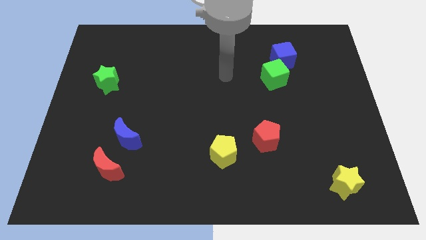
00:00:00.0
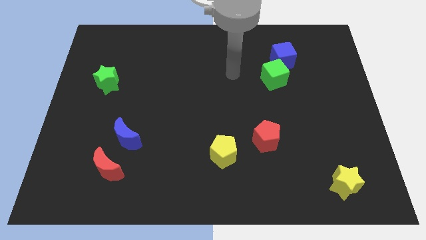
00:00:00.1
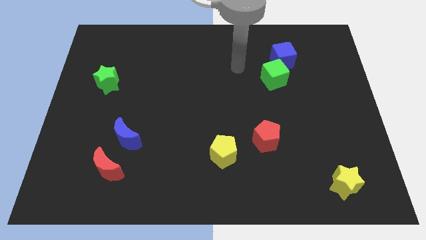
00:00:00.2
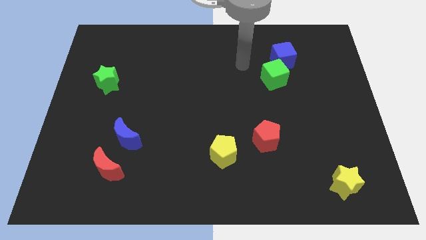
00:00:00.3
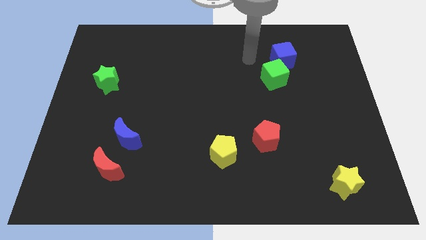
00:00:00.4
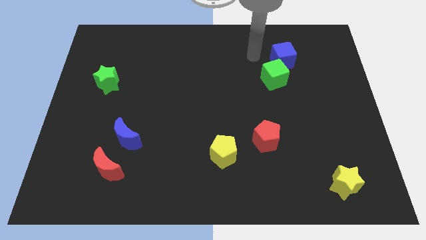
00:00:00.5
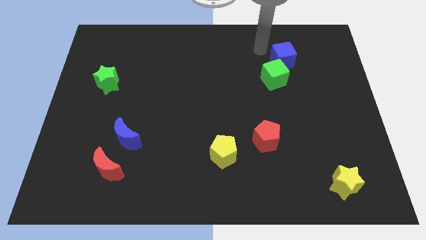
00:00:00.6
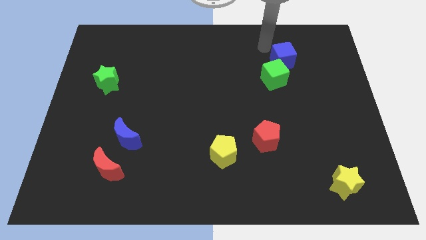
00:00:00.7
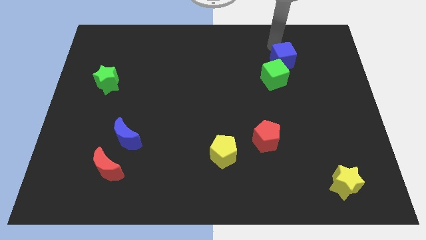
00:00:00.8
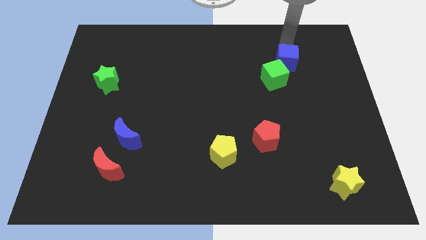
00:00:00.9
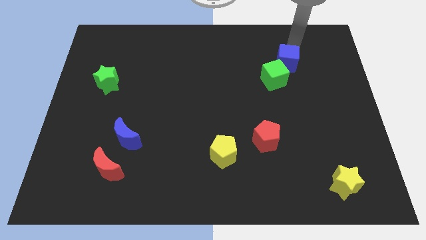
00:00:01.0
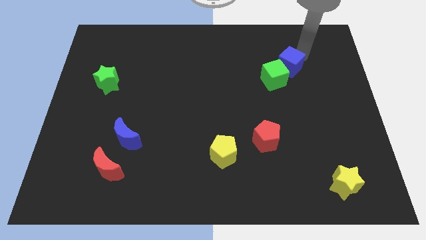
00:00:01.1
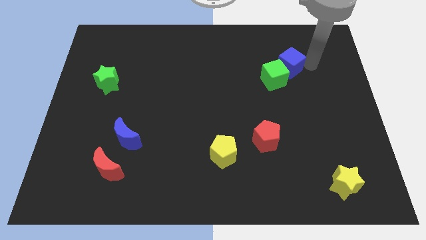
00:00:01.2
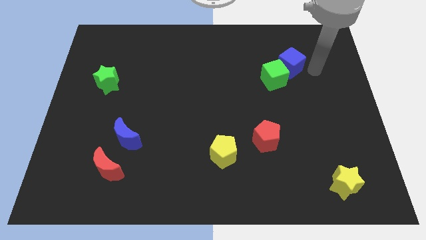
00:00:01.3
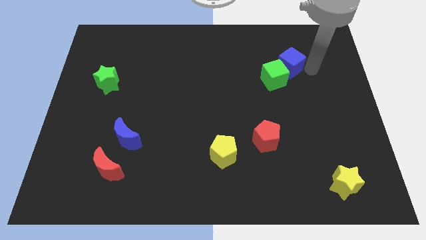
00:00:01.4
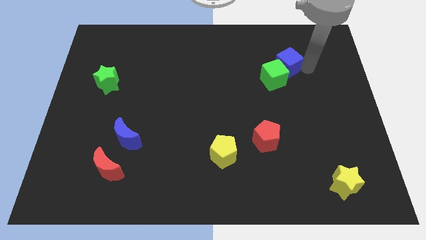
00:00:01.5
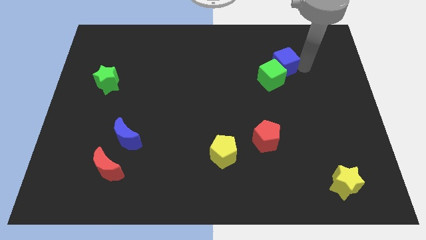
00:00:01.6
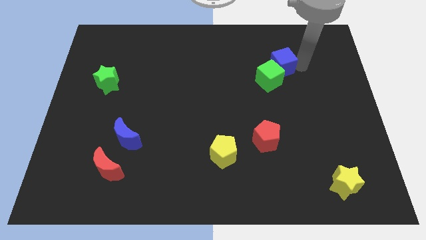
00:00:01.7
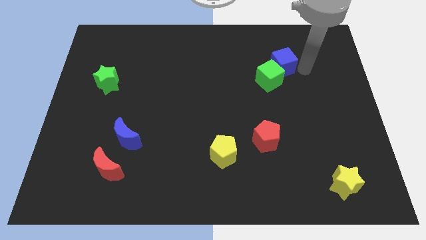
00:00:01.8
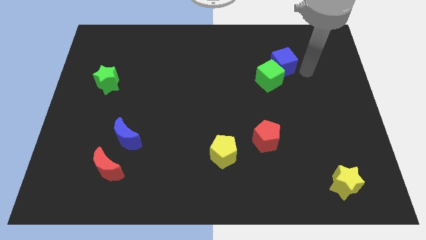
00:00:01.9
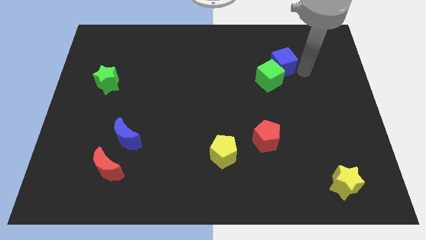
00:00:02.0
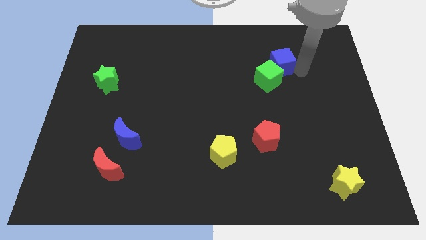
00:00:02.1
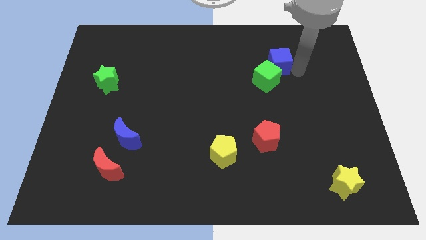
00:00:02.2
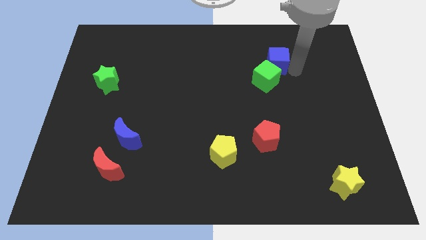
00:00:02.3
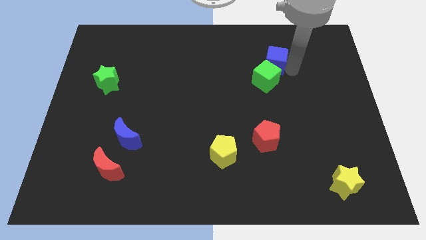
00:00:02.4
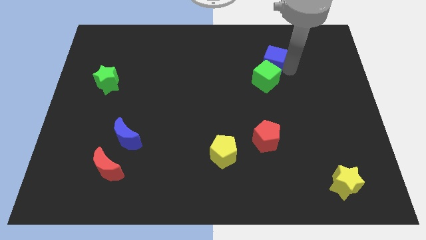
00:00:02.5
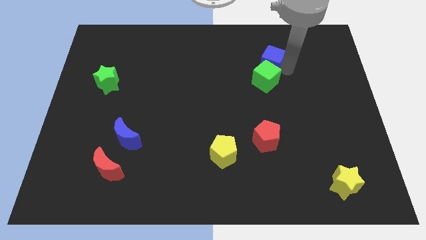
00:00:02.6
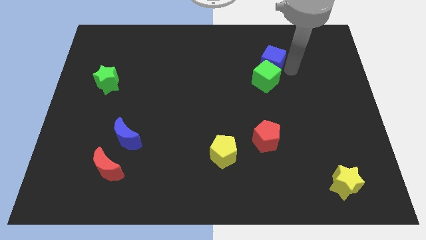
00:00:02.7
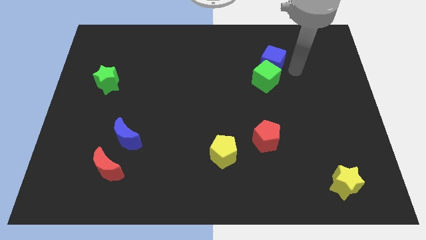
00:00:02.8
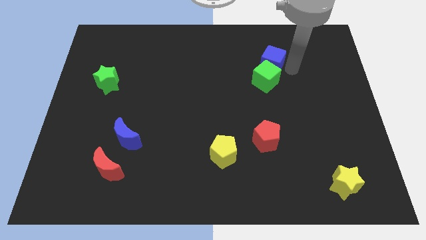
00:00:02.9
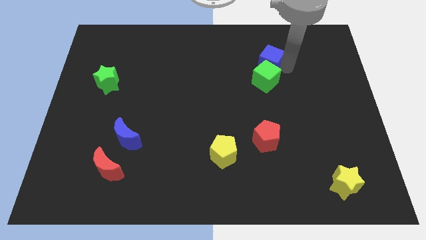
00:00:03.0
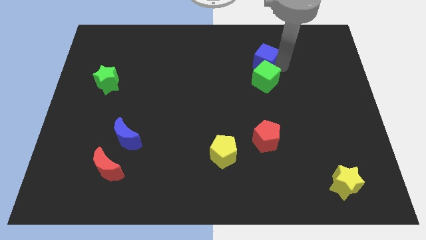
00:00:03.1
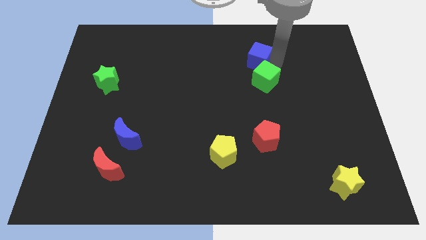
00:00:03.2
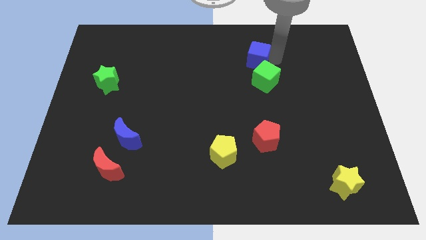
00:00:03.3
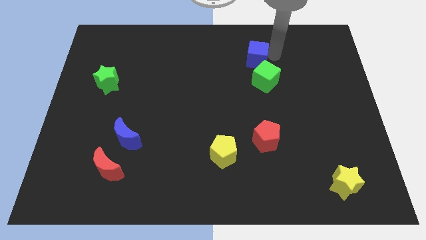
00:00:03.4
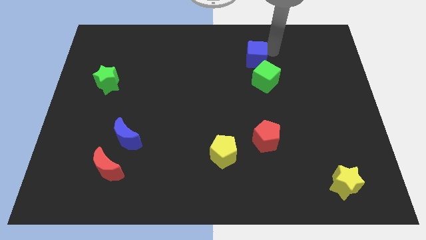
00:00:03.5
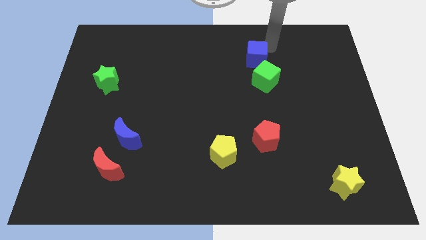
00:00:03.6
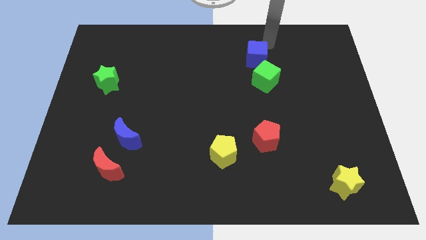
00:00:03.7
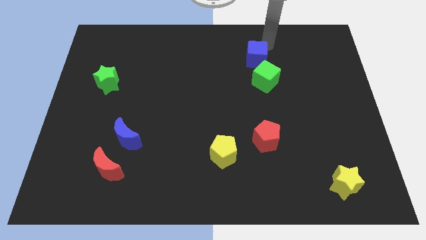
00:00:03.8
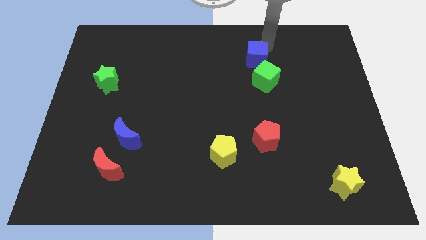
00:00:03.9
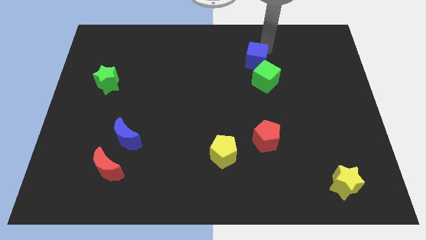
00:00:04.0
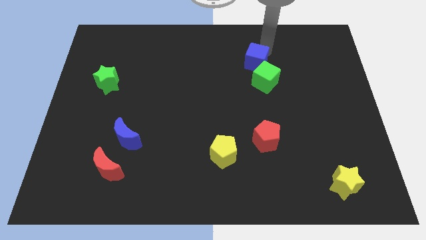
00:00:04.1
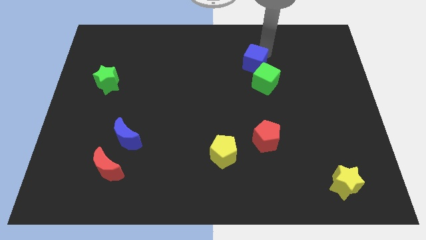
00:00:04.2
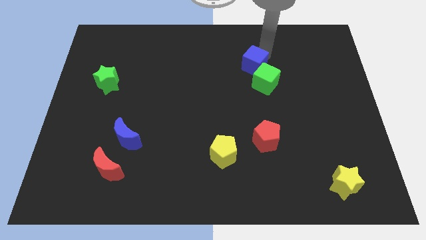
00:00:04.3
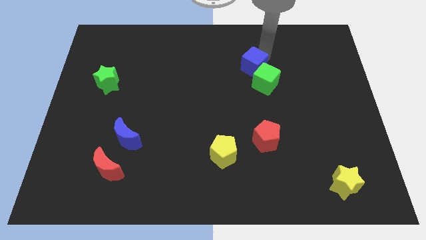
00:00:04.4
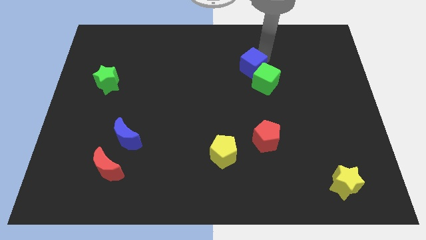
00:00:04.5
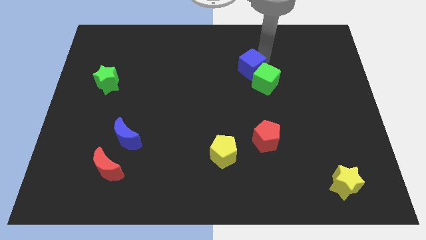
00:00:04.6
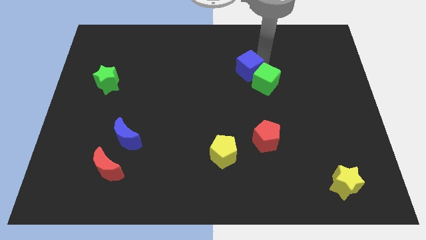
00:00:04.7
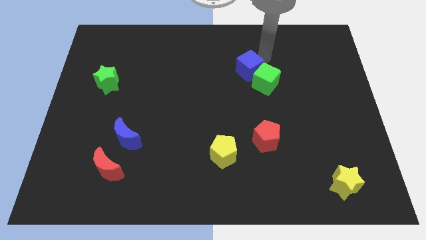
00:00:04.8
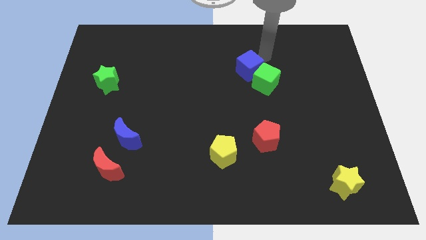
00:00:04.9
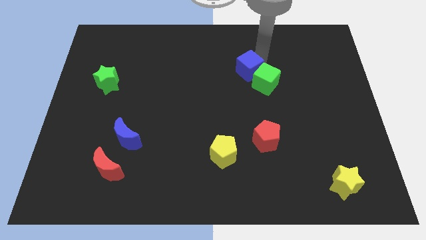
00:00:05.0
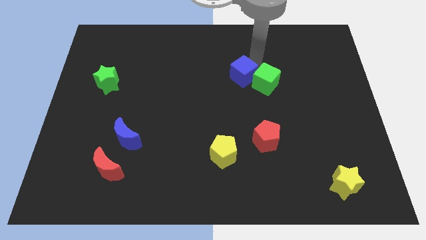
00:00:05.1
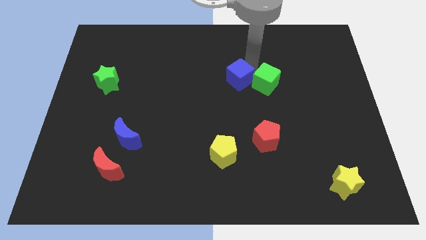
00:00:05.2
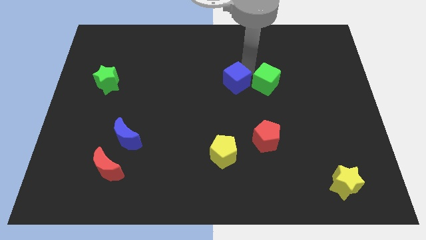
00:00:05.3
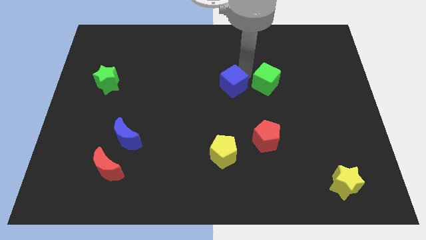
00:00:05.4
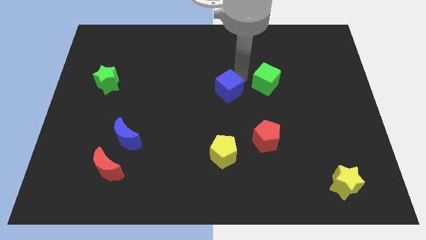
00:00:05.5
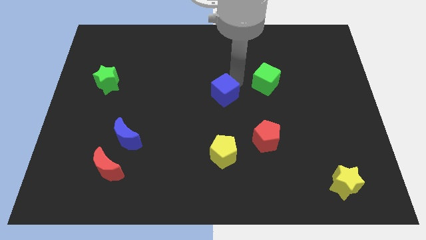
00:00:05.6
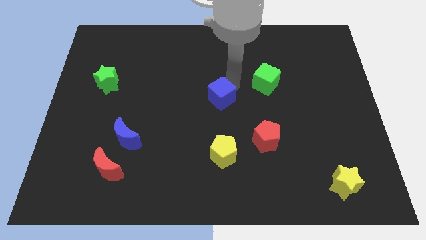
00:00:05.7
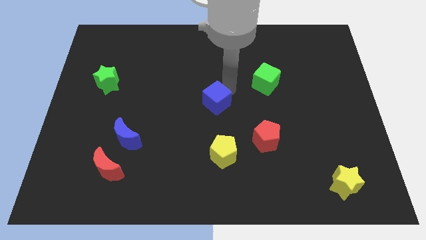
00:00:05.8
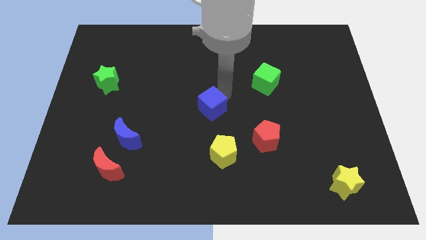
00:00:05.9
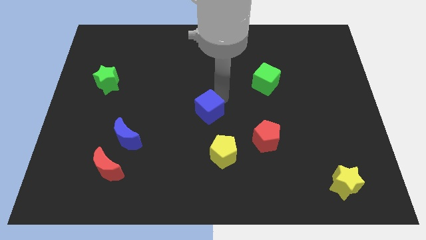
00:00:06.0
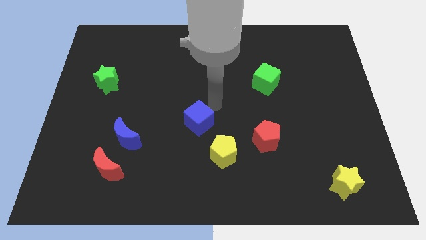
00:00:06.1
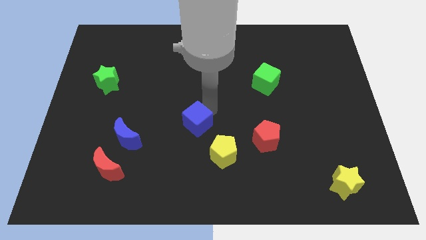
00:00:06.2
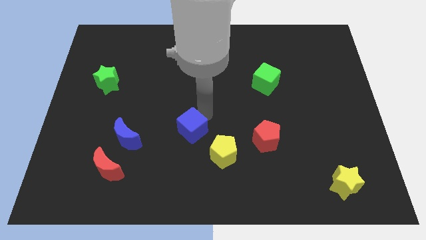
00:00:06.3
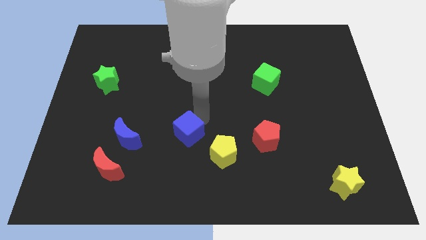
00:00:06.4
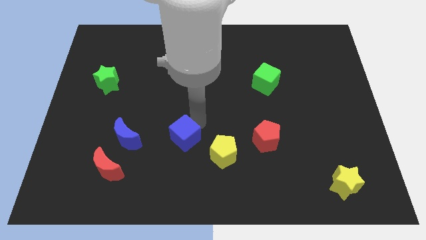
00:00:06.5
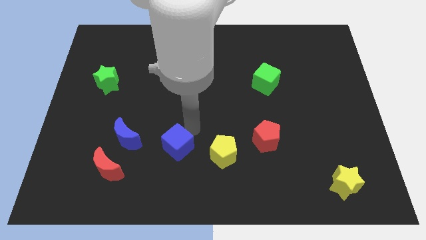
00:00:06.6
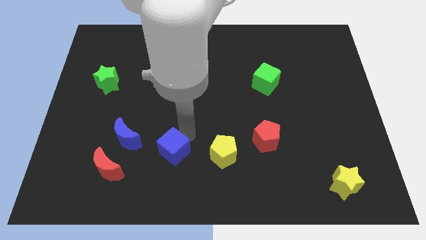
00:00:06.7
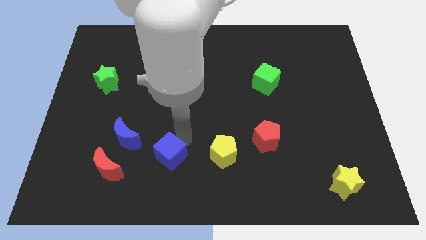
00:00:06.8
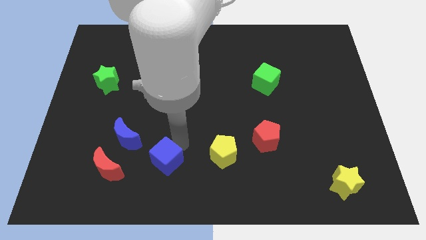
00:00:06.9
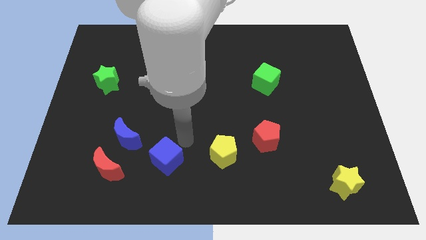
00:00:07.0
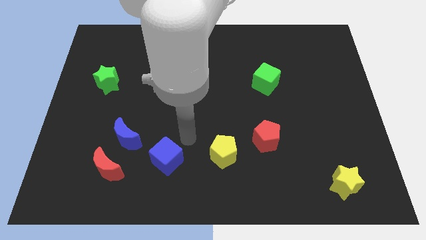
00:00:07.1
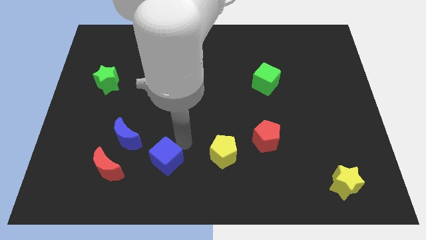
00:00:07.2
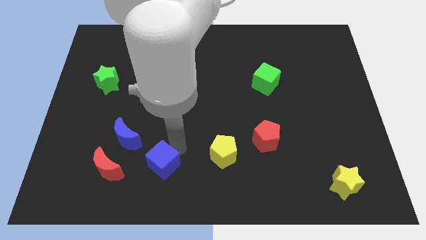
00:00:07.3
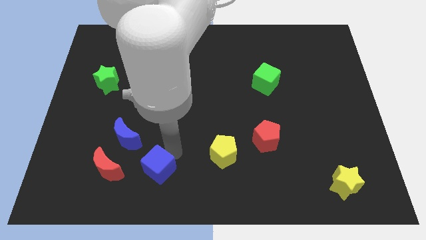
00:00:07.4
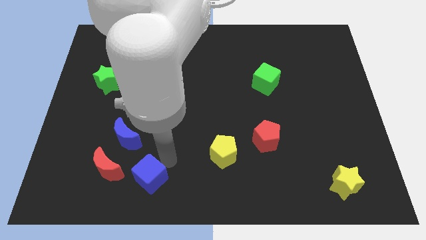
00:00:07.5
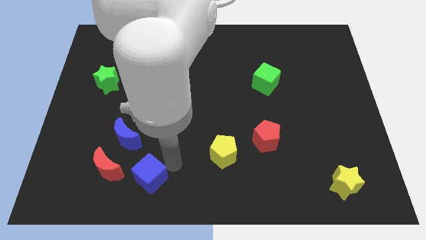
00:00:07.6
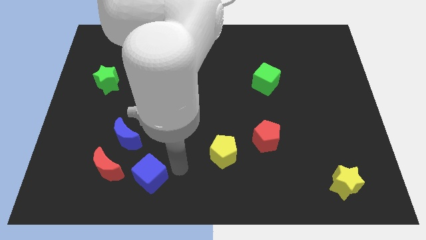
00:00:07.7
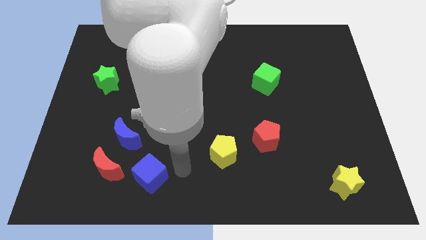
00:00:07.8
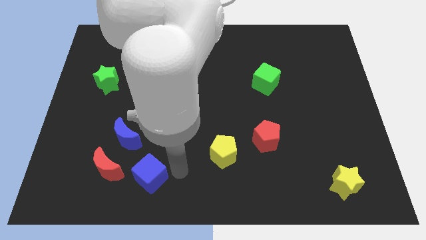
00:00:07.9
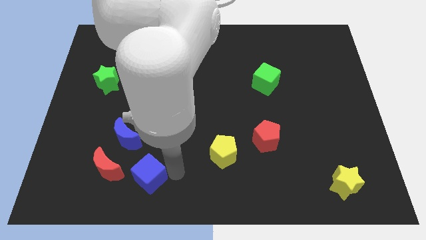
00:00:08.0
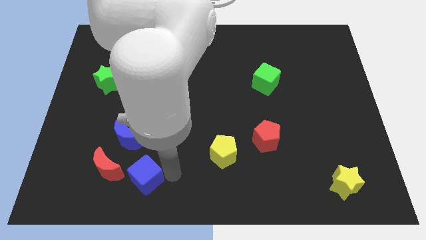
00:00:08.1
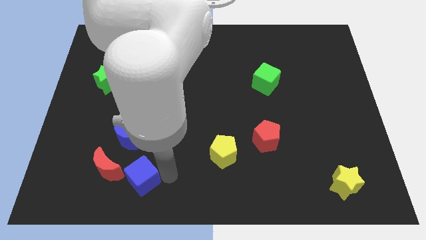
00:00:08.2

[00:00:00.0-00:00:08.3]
put the blue cube to the bottom side of the blue moon
